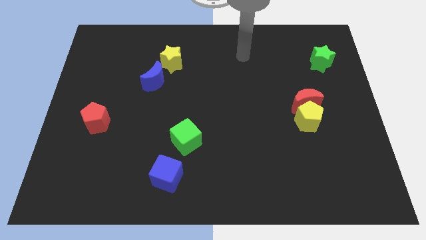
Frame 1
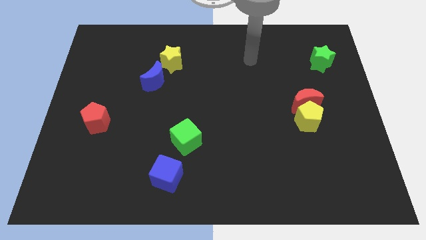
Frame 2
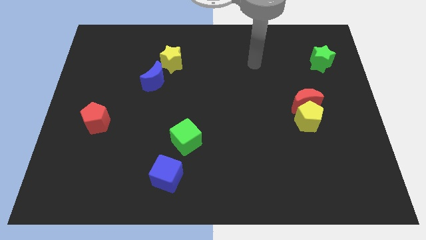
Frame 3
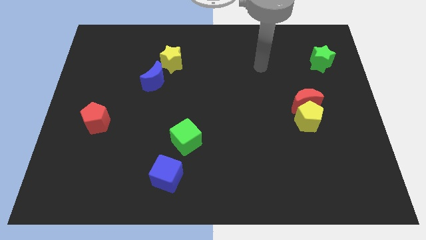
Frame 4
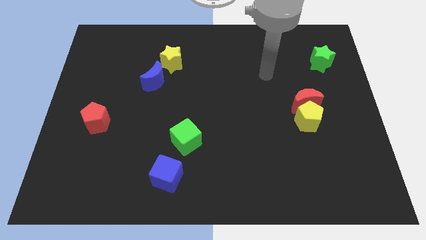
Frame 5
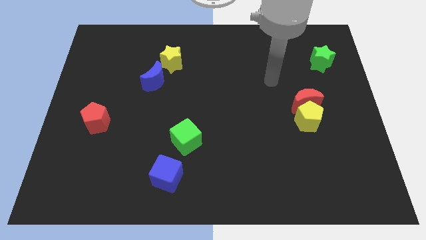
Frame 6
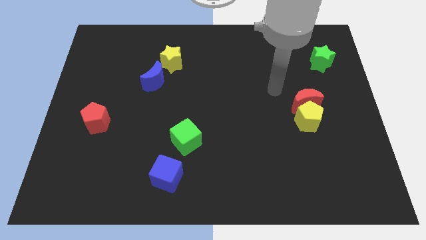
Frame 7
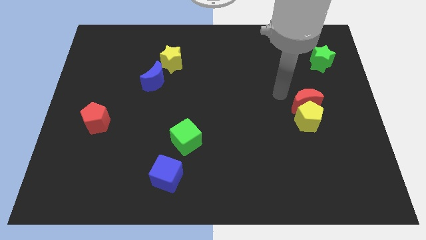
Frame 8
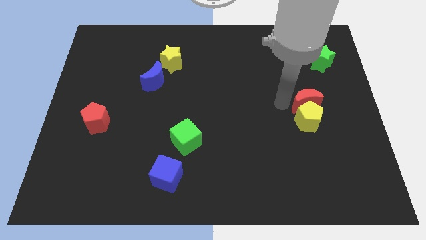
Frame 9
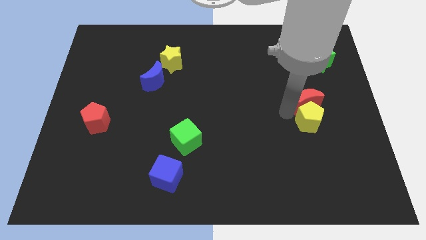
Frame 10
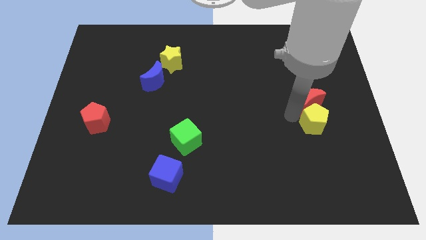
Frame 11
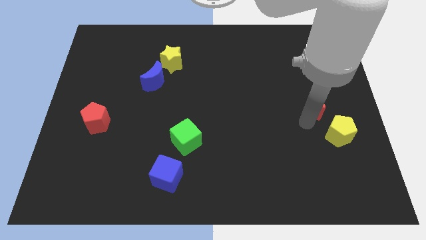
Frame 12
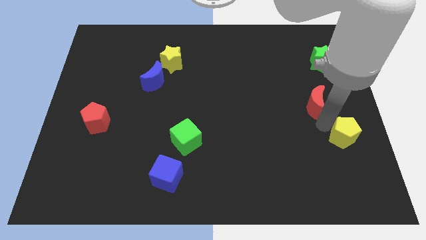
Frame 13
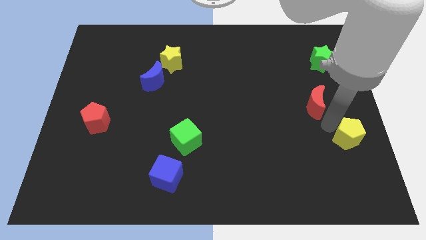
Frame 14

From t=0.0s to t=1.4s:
move the red moon away from the yellow pentagon

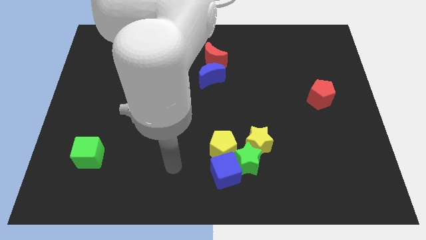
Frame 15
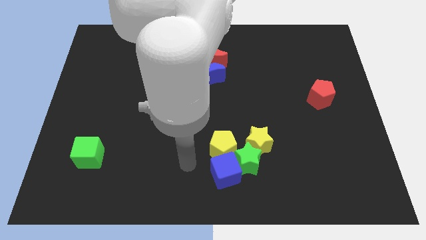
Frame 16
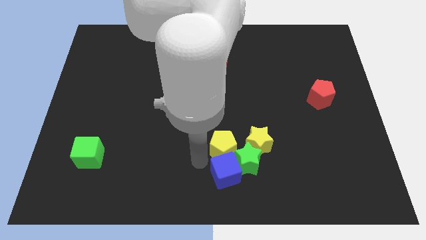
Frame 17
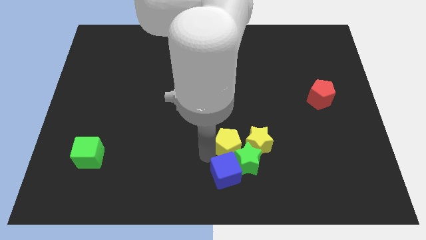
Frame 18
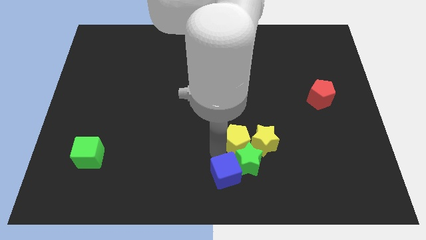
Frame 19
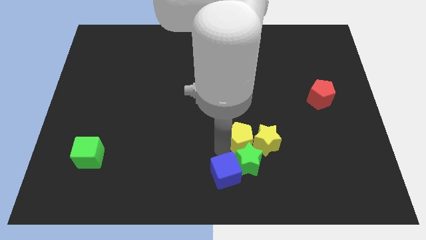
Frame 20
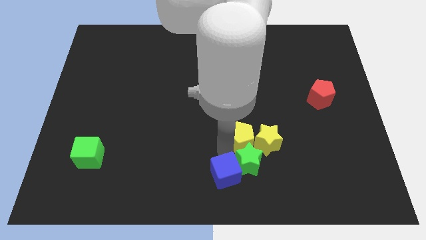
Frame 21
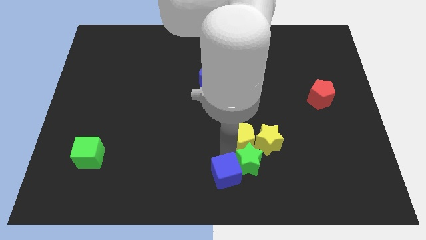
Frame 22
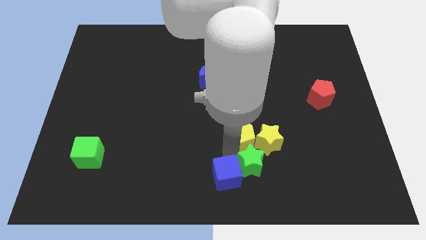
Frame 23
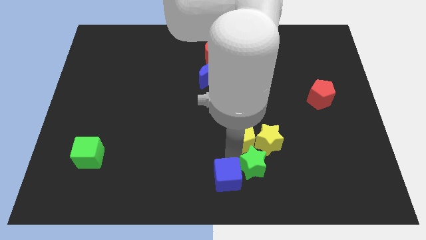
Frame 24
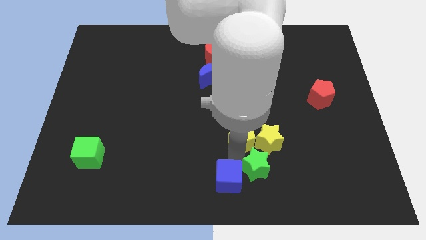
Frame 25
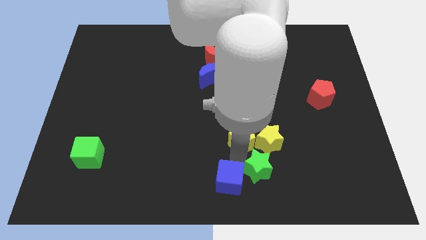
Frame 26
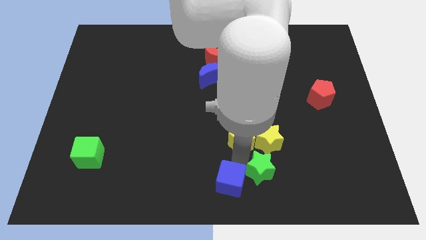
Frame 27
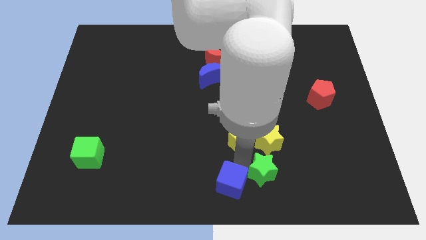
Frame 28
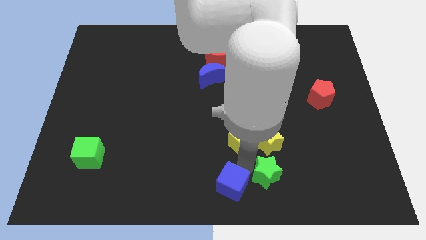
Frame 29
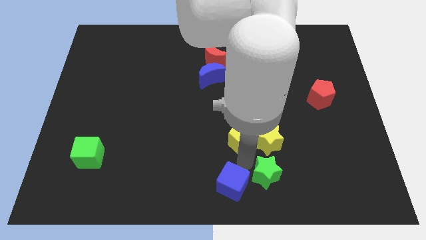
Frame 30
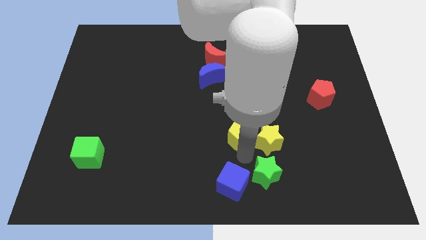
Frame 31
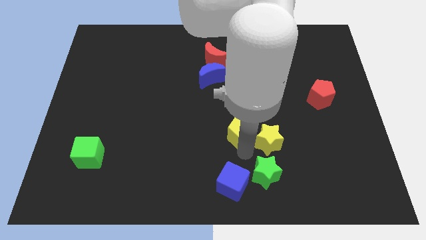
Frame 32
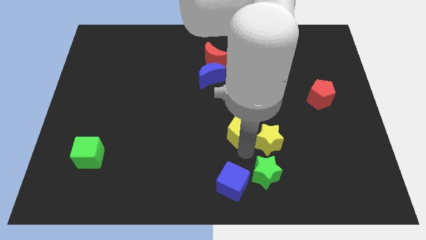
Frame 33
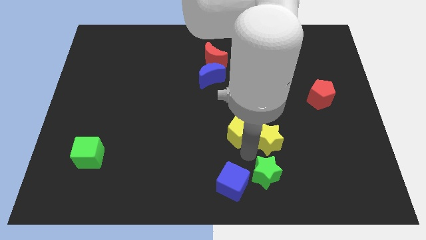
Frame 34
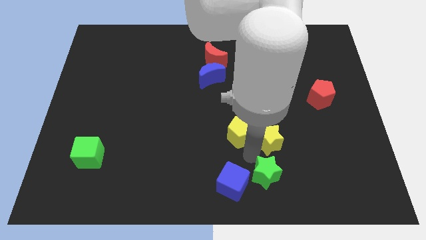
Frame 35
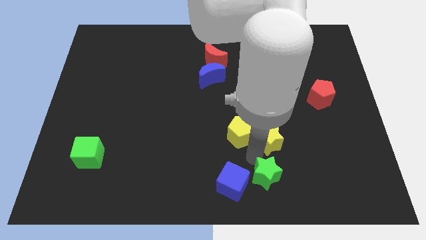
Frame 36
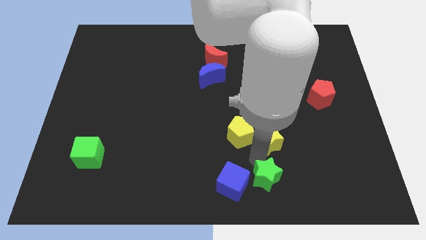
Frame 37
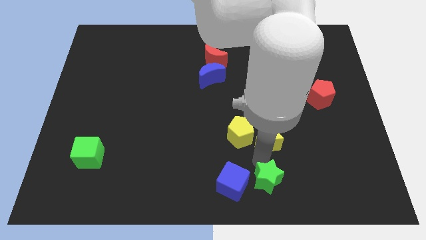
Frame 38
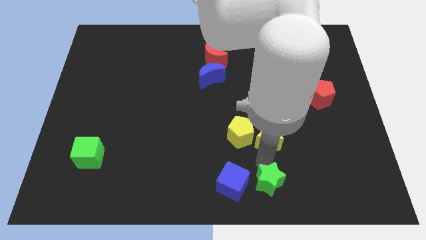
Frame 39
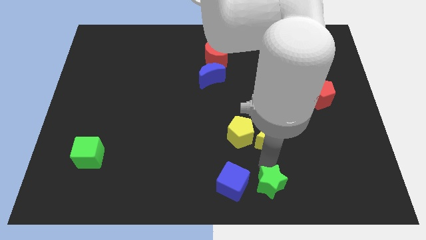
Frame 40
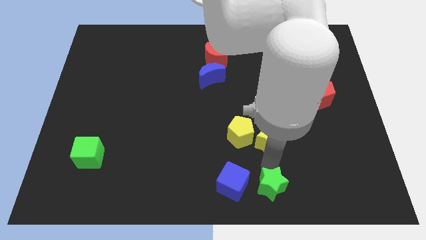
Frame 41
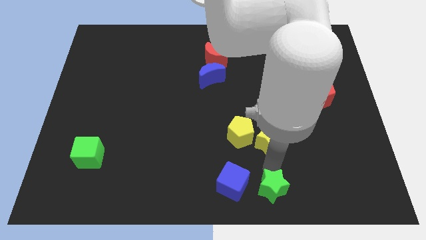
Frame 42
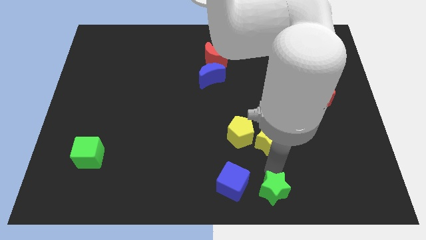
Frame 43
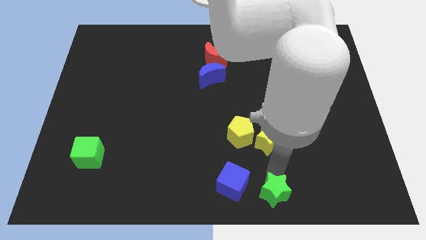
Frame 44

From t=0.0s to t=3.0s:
separate the green star from the clump

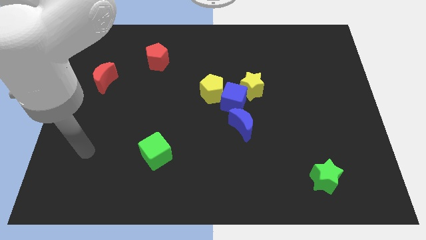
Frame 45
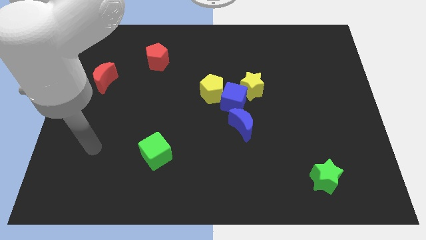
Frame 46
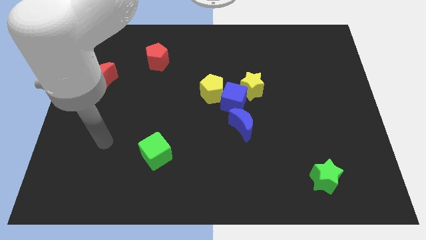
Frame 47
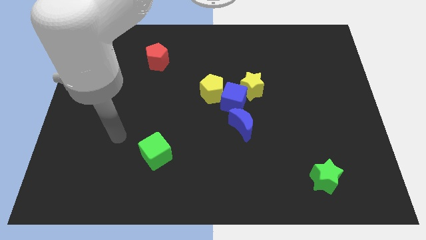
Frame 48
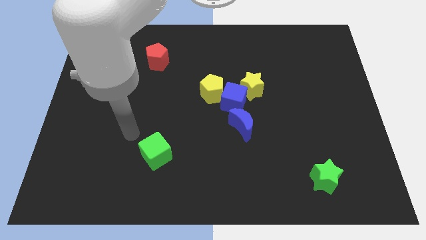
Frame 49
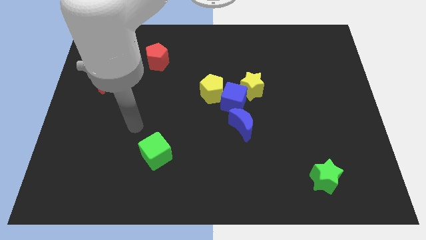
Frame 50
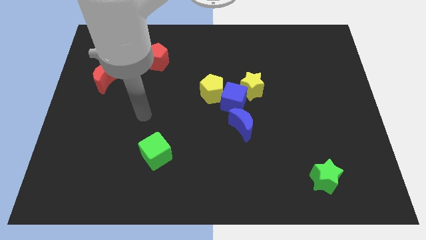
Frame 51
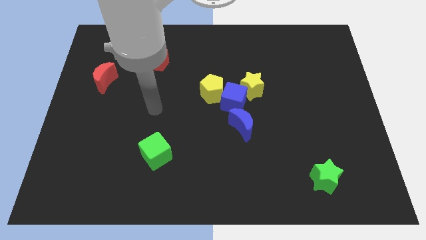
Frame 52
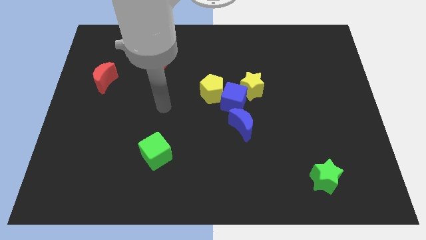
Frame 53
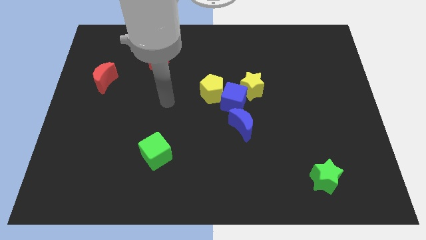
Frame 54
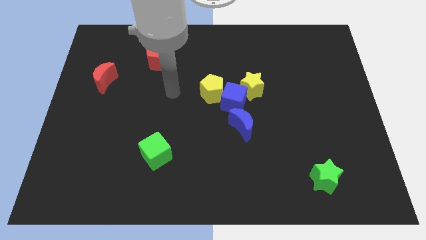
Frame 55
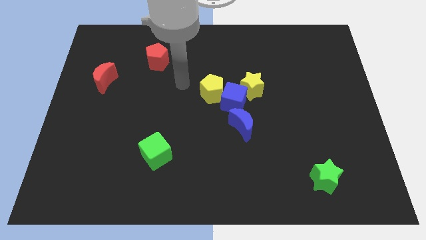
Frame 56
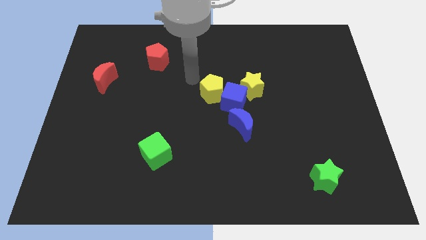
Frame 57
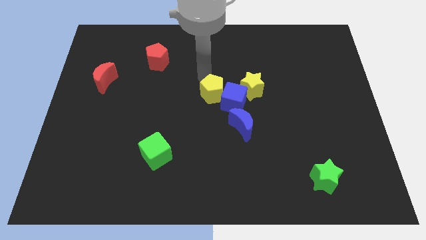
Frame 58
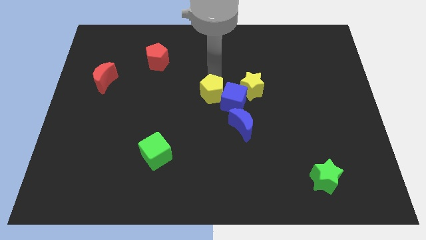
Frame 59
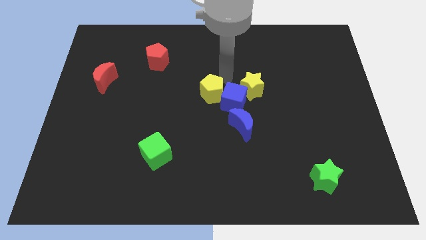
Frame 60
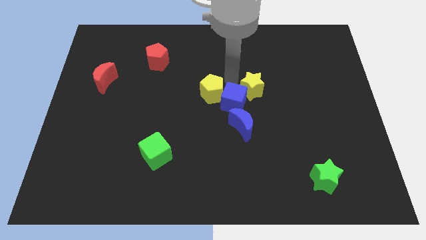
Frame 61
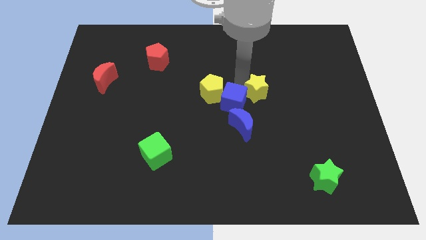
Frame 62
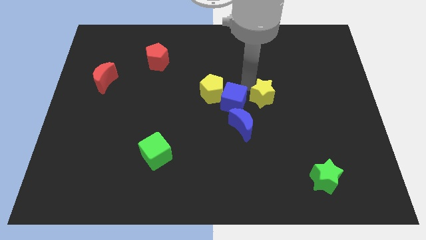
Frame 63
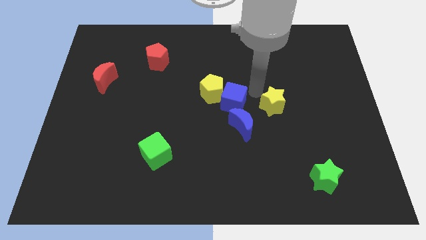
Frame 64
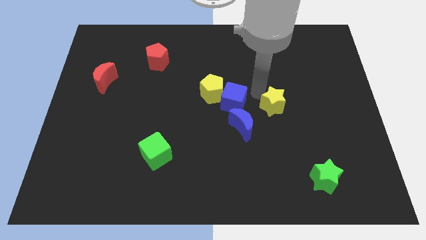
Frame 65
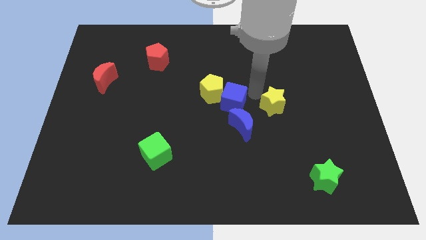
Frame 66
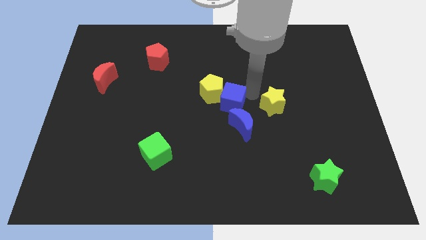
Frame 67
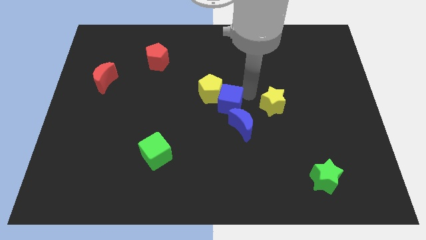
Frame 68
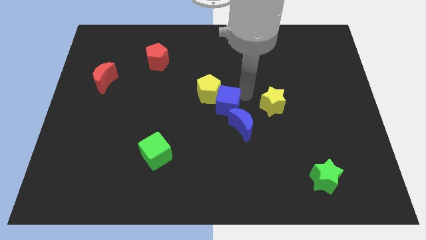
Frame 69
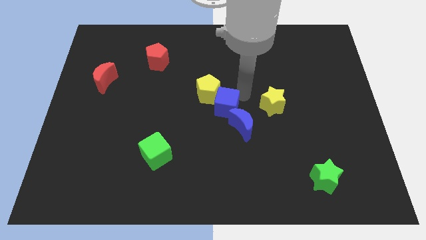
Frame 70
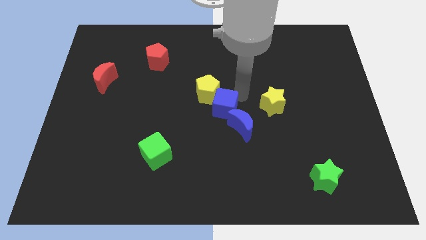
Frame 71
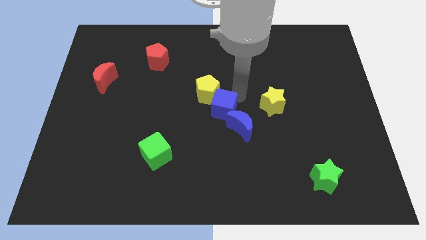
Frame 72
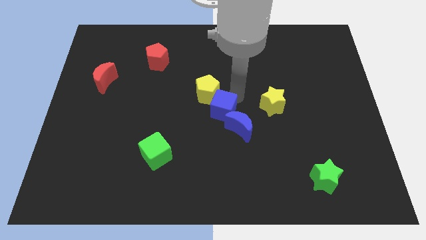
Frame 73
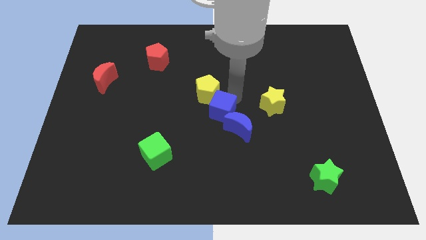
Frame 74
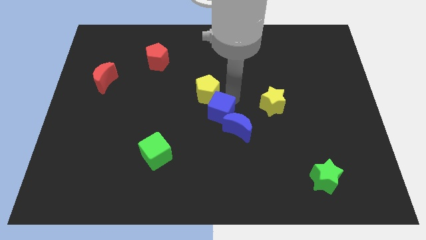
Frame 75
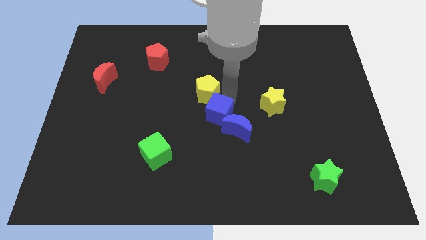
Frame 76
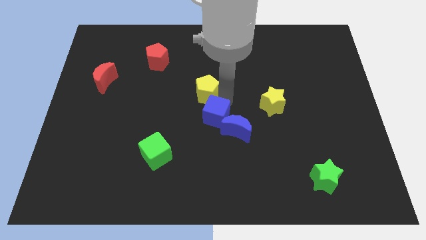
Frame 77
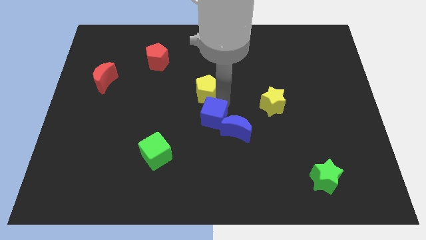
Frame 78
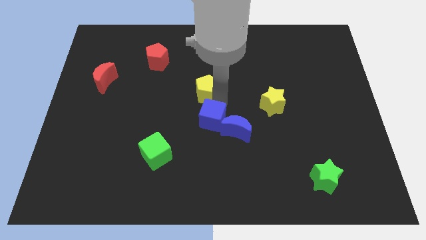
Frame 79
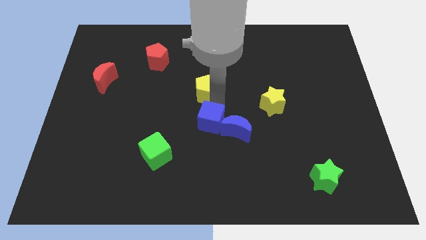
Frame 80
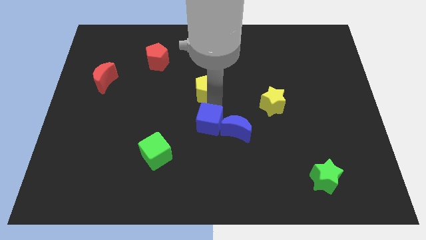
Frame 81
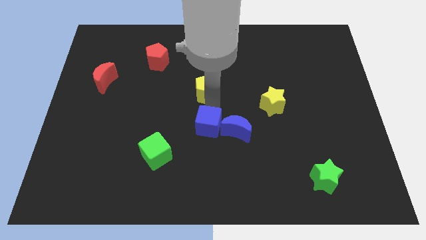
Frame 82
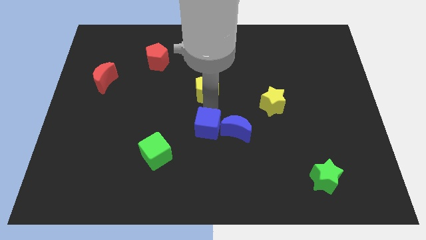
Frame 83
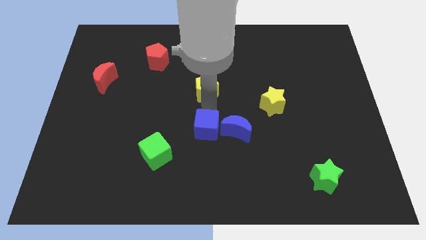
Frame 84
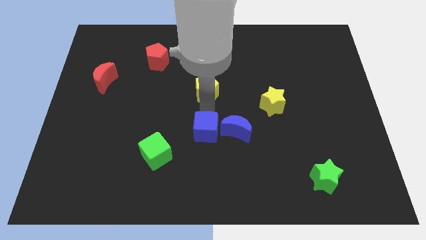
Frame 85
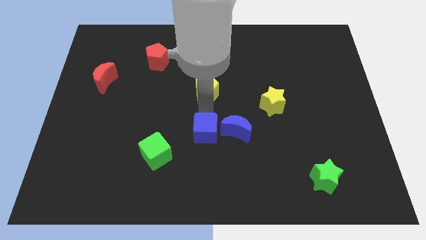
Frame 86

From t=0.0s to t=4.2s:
pull the blue cube apart from the yellow pentagon, yellow star, and blue moon

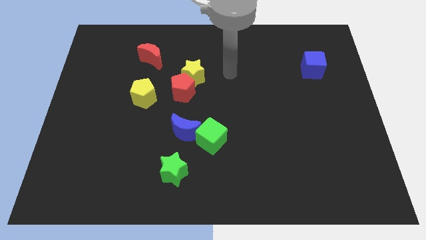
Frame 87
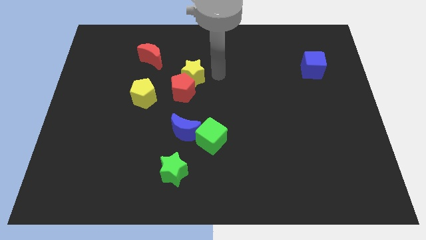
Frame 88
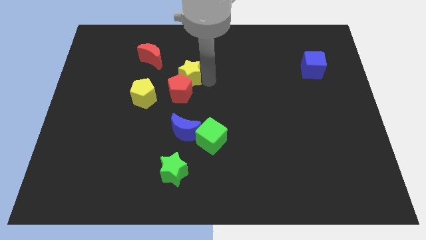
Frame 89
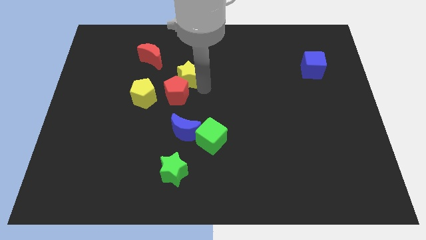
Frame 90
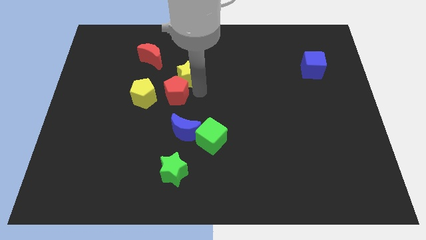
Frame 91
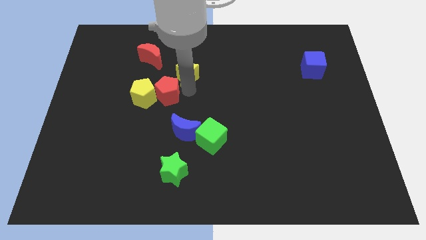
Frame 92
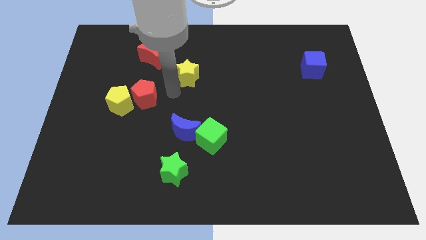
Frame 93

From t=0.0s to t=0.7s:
pull the yellow star apart from the red pentagon

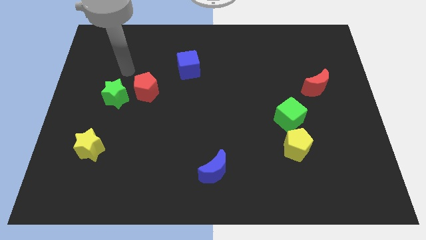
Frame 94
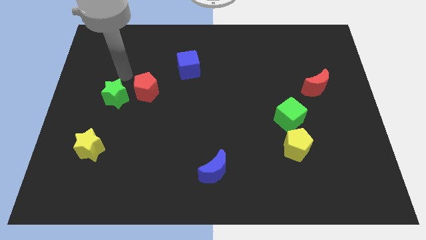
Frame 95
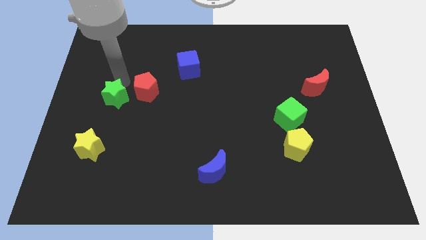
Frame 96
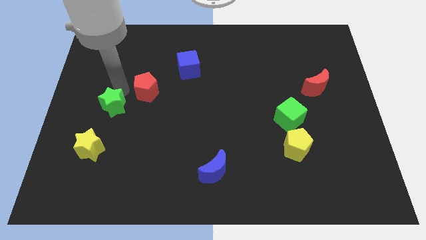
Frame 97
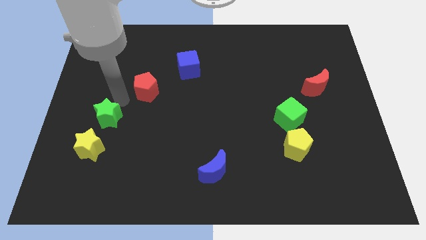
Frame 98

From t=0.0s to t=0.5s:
pull the red pentagon apart from the green star
